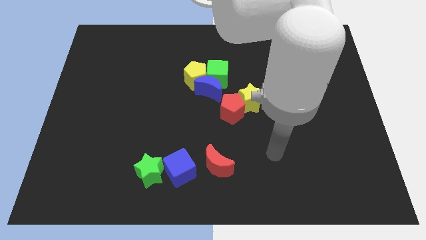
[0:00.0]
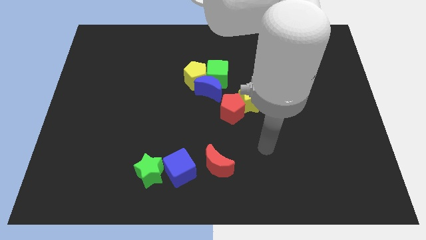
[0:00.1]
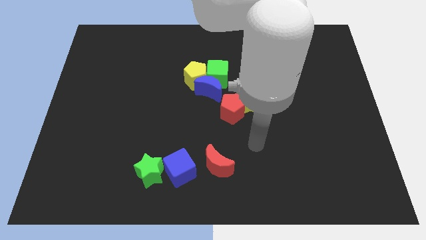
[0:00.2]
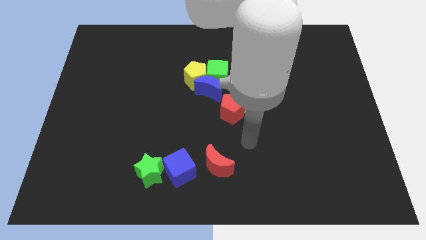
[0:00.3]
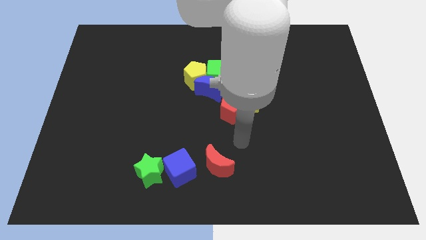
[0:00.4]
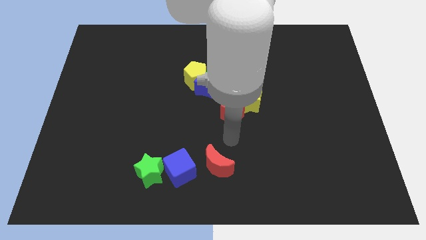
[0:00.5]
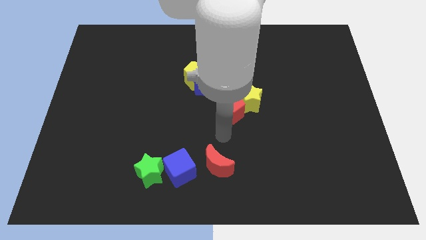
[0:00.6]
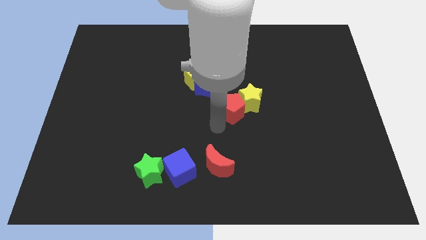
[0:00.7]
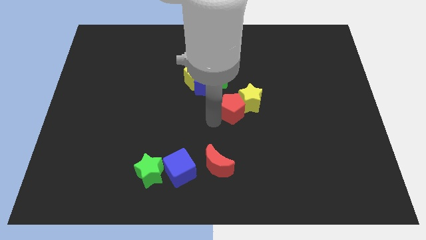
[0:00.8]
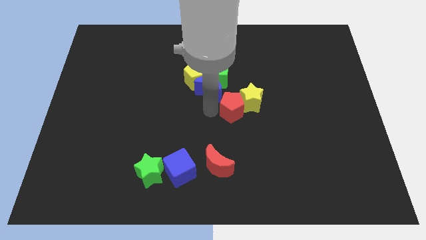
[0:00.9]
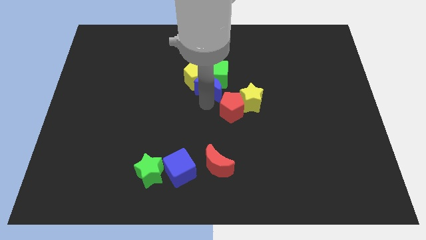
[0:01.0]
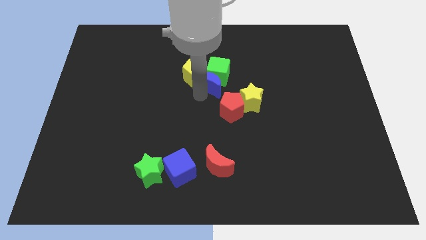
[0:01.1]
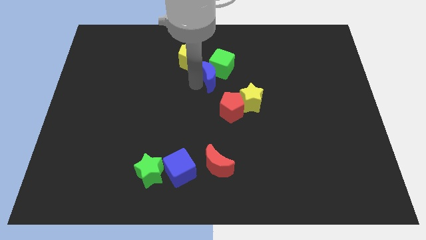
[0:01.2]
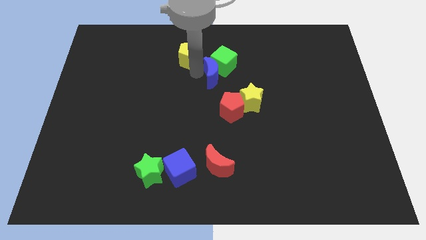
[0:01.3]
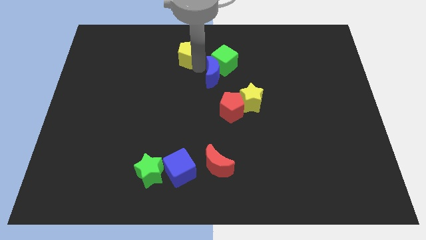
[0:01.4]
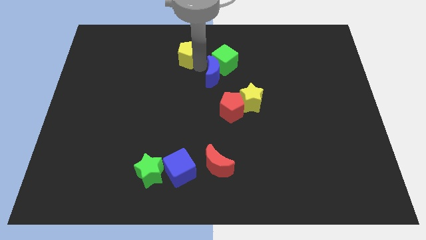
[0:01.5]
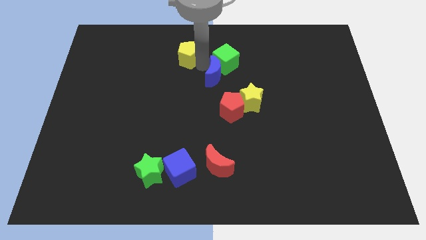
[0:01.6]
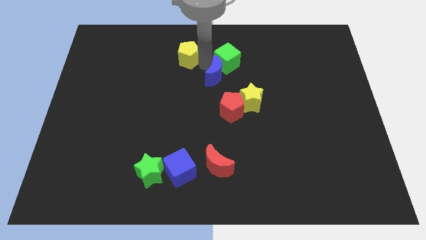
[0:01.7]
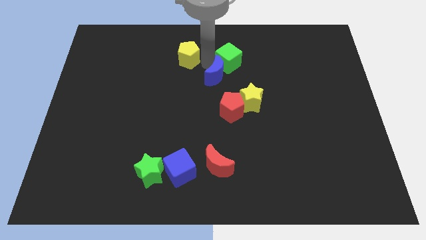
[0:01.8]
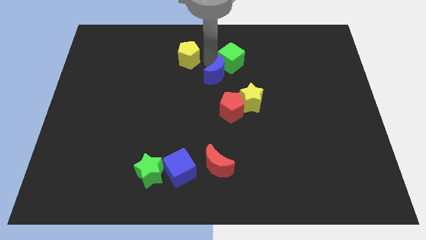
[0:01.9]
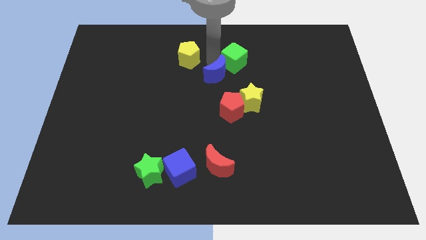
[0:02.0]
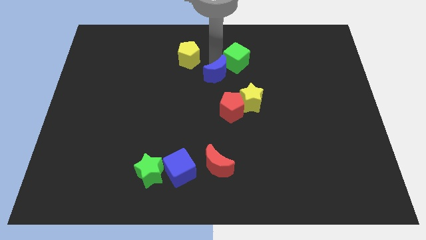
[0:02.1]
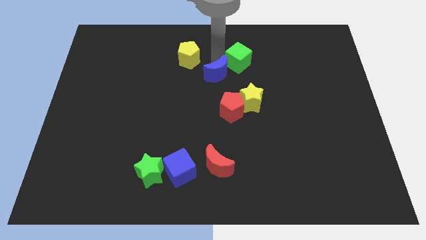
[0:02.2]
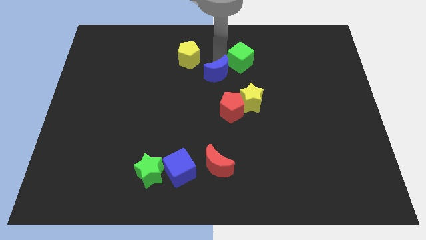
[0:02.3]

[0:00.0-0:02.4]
pull the green cube apart from the blue moon and yellow pentagon

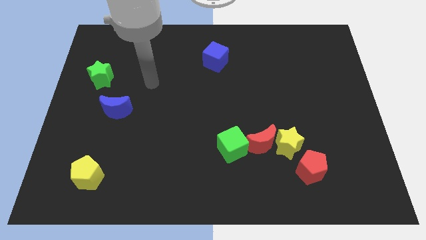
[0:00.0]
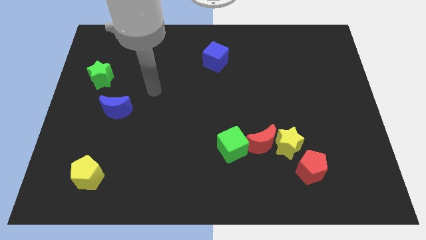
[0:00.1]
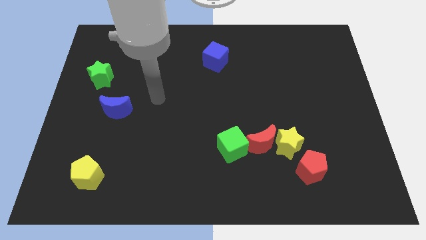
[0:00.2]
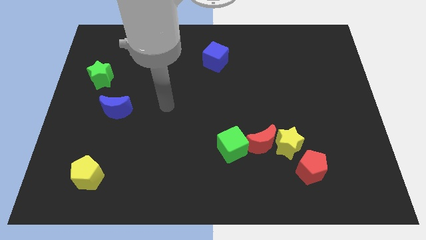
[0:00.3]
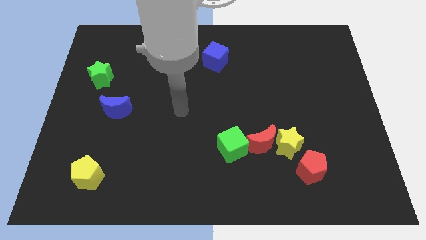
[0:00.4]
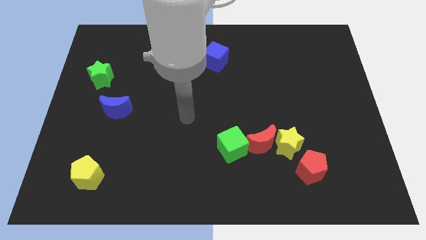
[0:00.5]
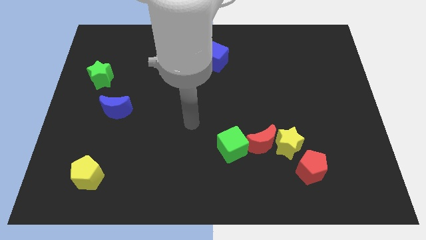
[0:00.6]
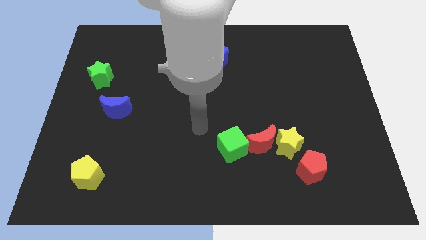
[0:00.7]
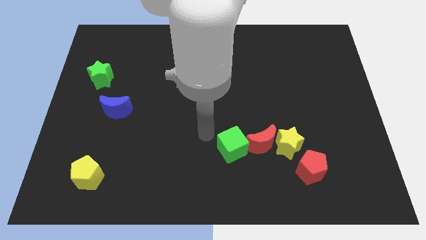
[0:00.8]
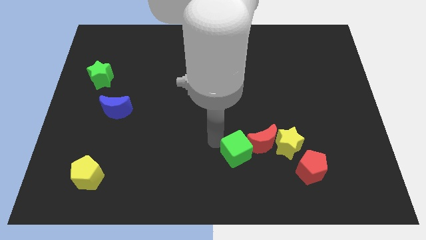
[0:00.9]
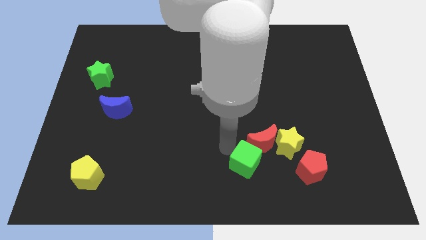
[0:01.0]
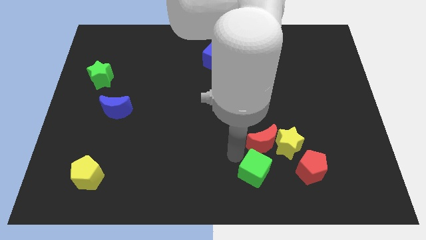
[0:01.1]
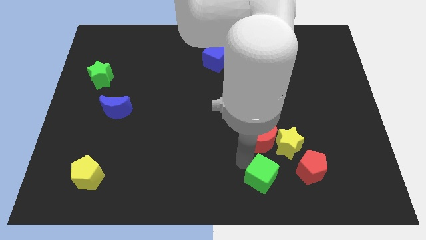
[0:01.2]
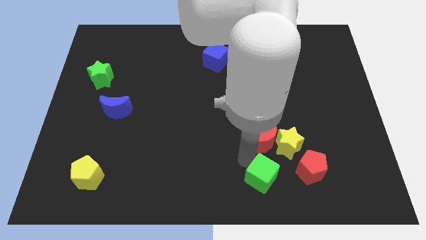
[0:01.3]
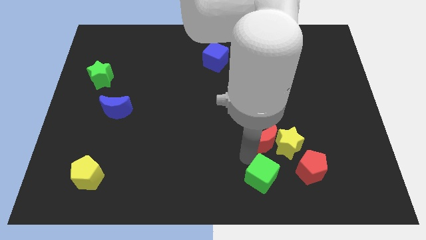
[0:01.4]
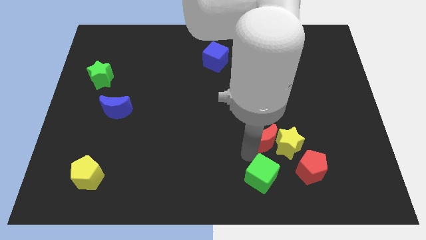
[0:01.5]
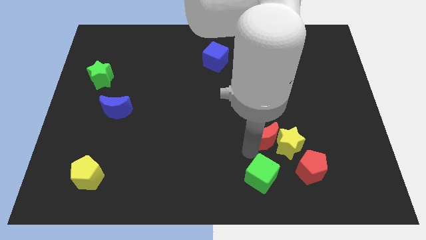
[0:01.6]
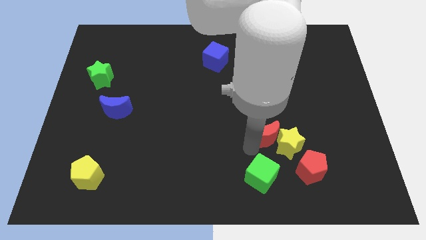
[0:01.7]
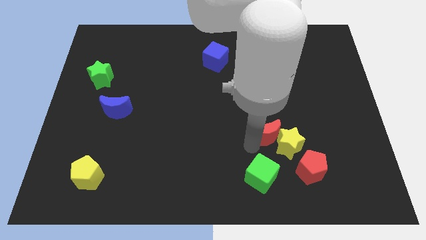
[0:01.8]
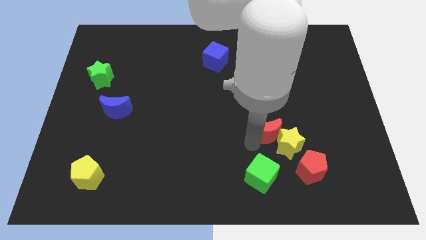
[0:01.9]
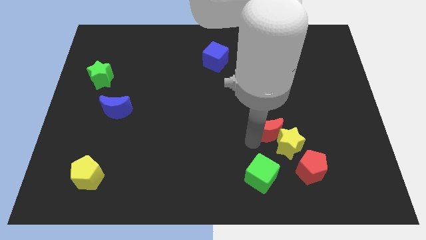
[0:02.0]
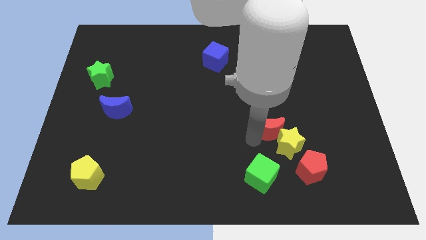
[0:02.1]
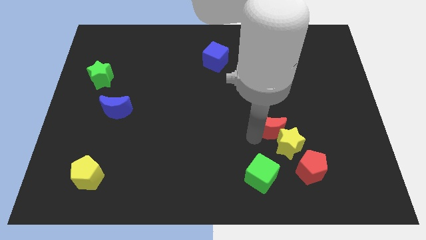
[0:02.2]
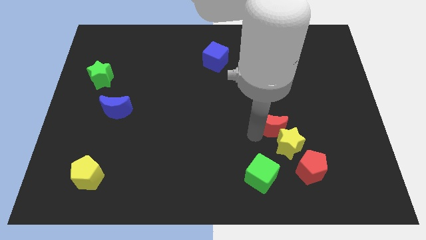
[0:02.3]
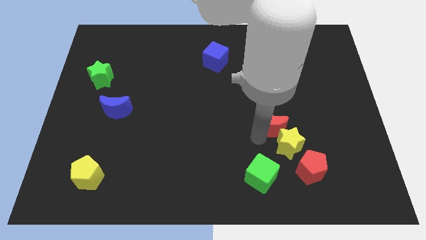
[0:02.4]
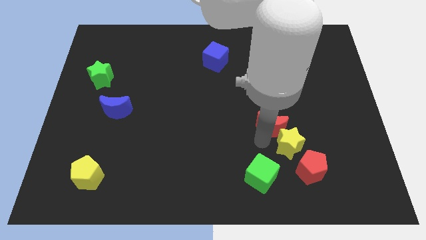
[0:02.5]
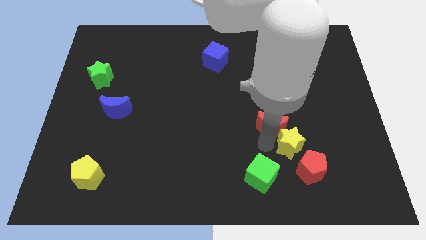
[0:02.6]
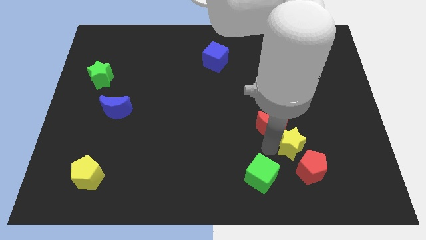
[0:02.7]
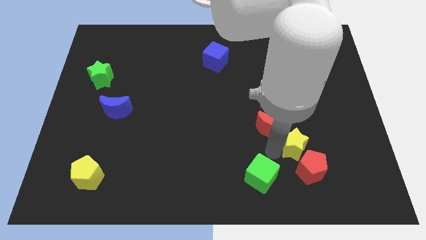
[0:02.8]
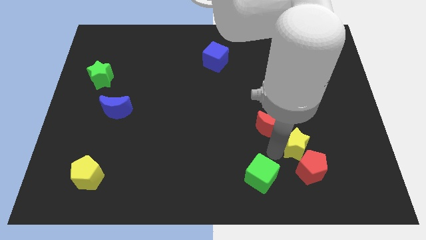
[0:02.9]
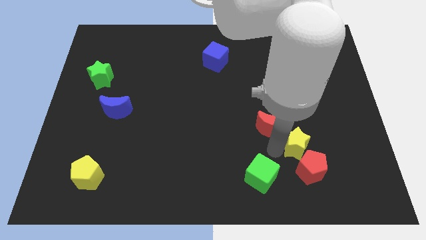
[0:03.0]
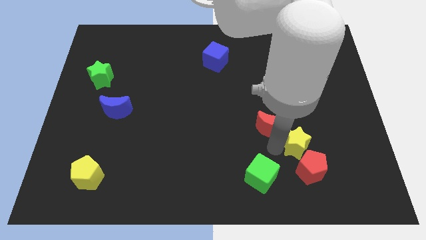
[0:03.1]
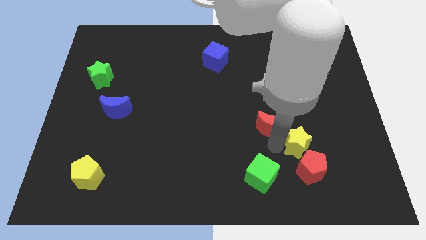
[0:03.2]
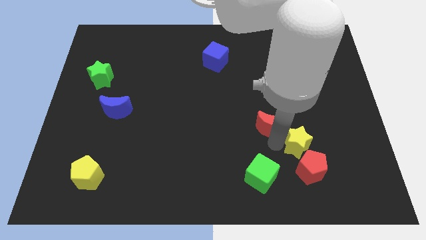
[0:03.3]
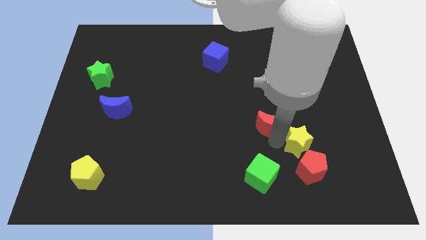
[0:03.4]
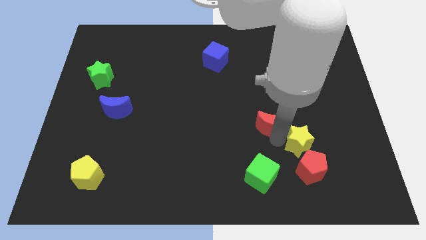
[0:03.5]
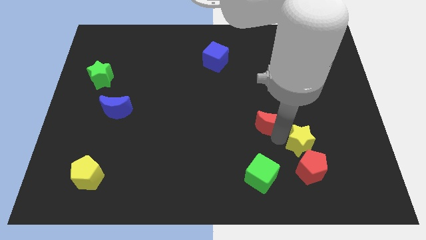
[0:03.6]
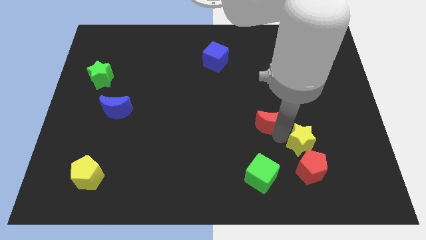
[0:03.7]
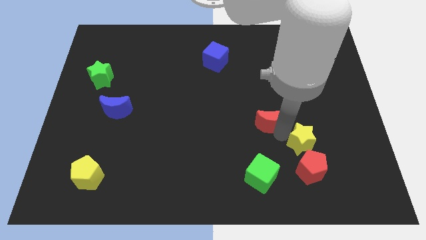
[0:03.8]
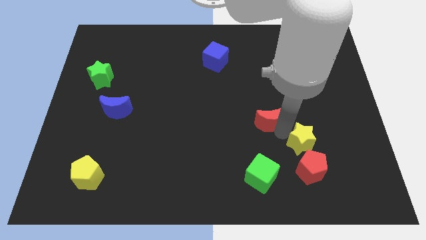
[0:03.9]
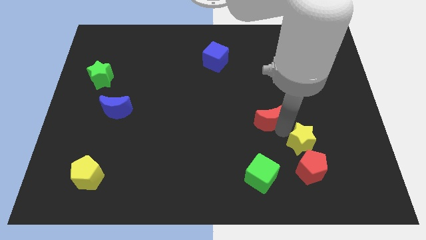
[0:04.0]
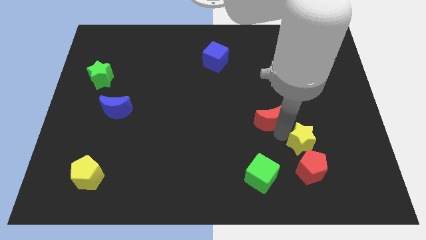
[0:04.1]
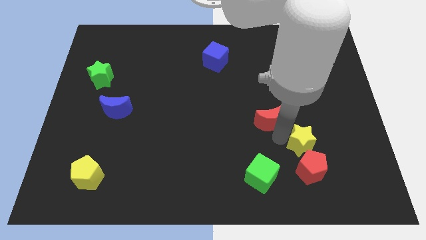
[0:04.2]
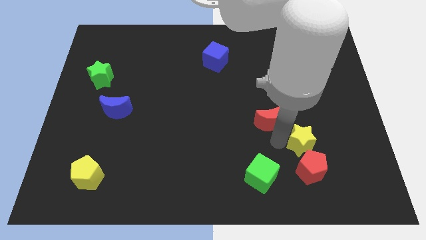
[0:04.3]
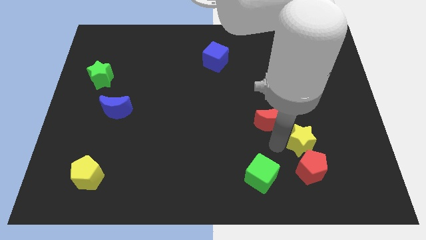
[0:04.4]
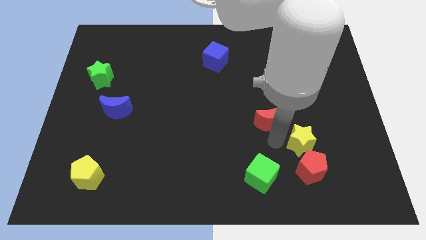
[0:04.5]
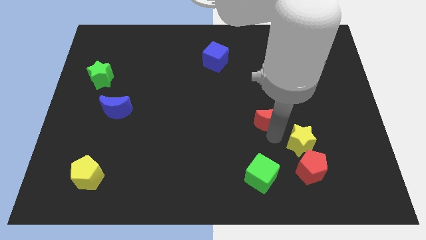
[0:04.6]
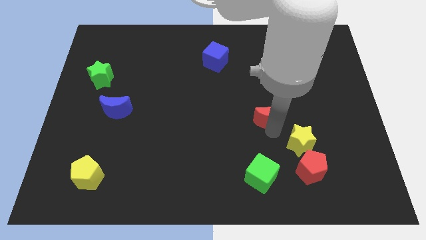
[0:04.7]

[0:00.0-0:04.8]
move the red moon away from the yellow star and green cube

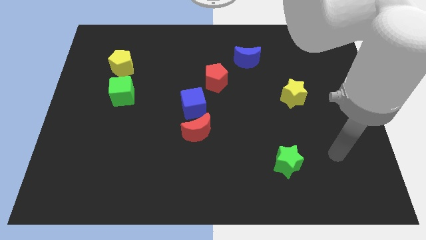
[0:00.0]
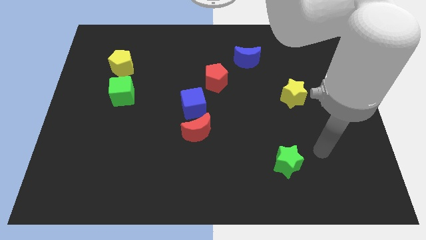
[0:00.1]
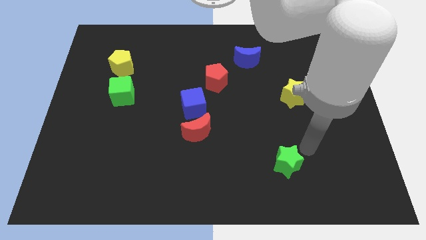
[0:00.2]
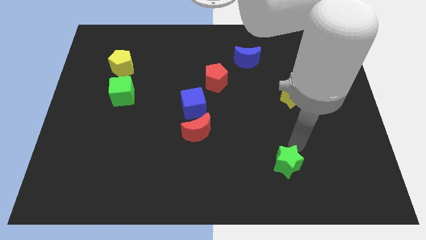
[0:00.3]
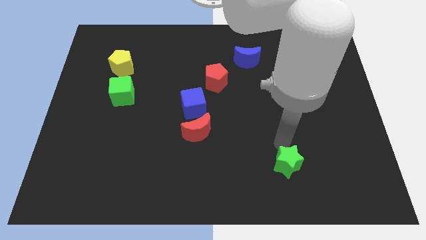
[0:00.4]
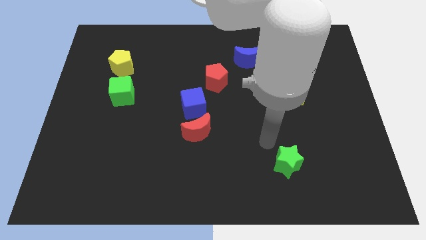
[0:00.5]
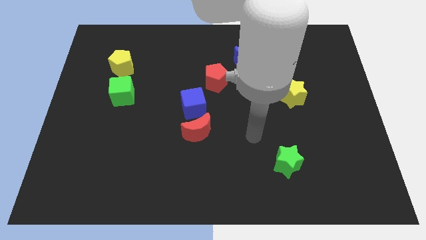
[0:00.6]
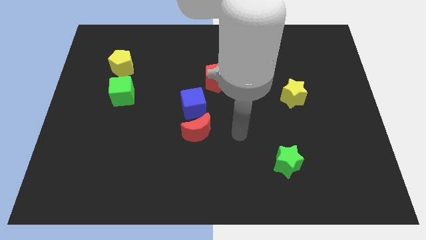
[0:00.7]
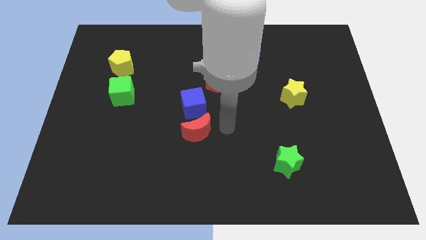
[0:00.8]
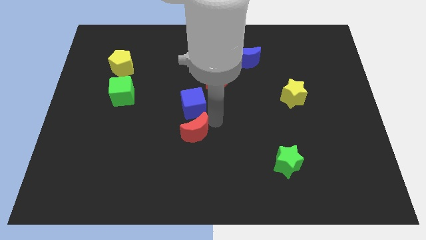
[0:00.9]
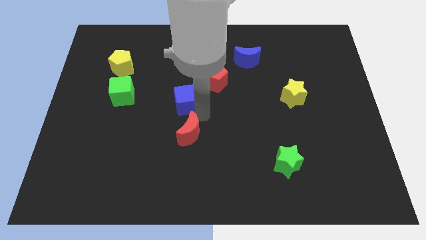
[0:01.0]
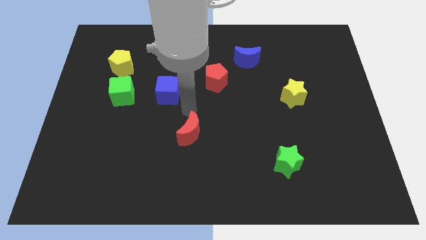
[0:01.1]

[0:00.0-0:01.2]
pull the red moon apart from the blue cube

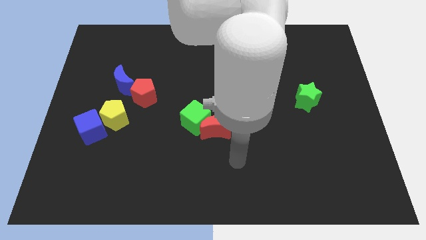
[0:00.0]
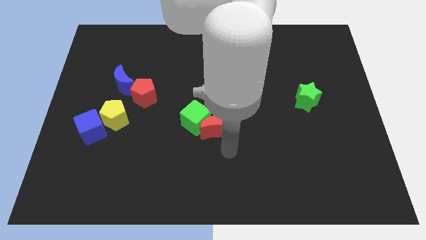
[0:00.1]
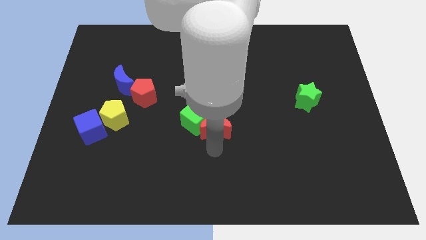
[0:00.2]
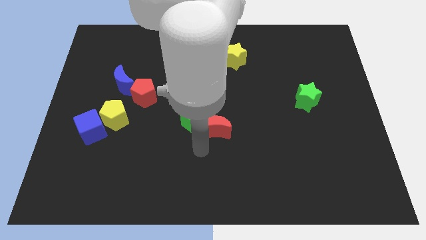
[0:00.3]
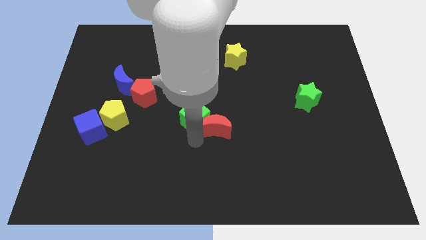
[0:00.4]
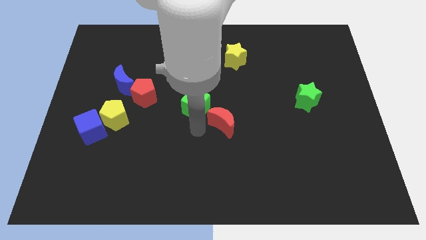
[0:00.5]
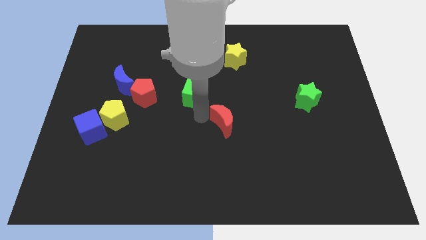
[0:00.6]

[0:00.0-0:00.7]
pull the red moon apart from the green cube

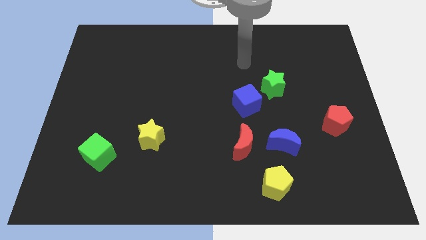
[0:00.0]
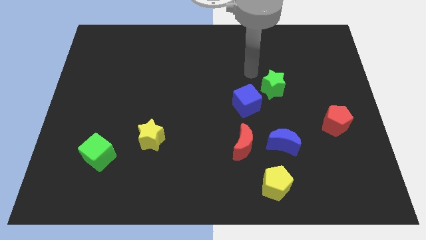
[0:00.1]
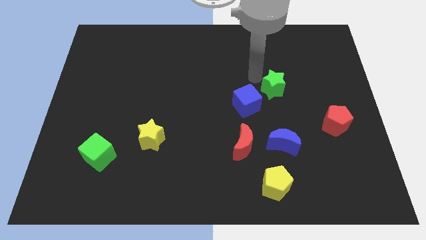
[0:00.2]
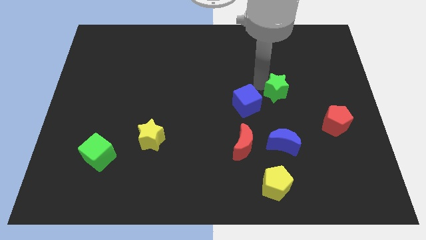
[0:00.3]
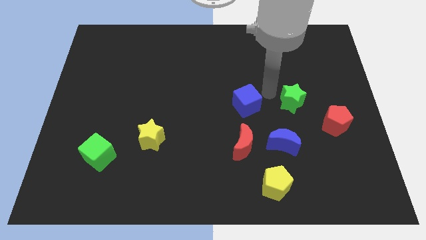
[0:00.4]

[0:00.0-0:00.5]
pull the blue cube apart from the green star
